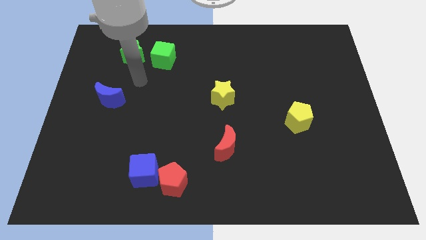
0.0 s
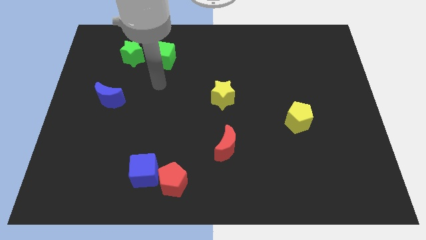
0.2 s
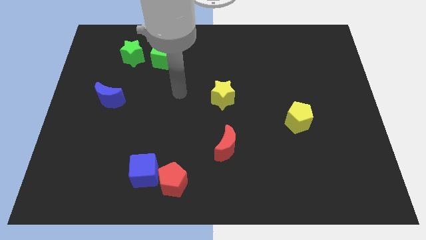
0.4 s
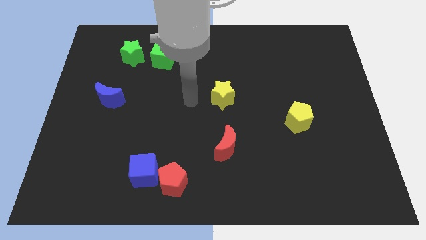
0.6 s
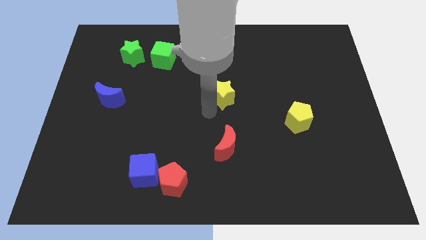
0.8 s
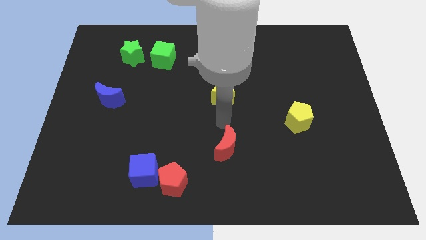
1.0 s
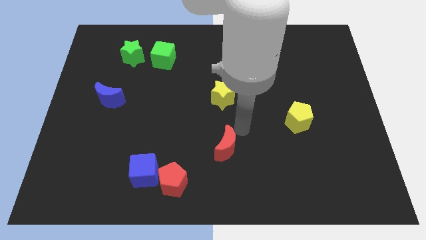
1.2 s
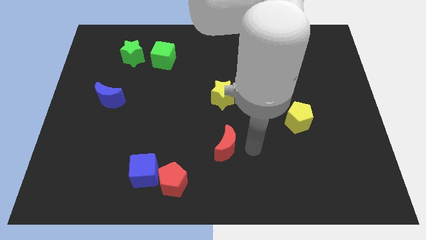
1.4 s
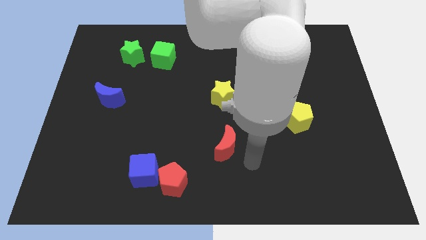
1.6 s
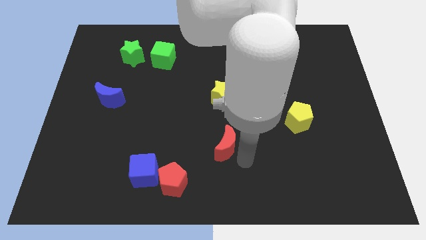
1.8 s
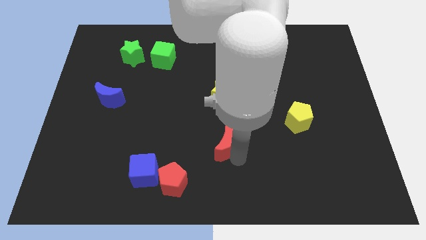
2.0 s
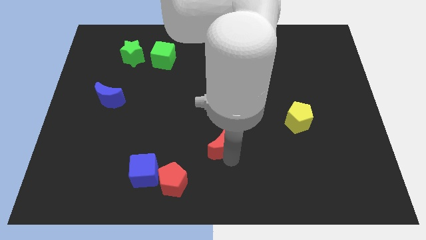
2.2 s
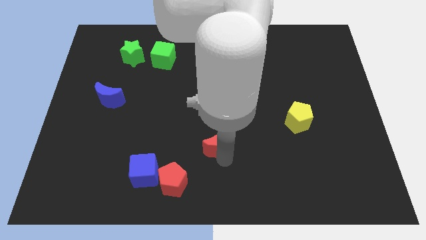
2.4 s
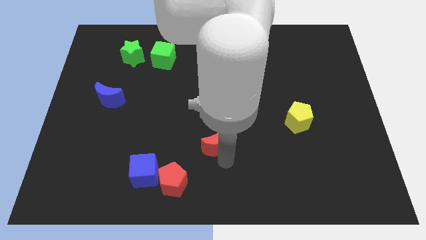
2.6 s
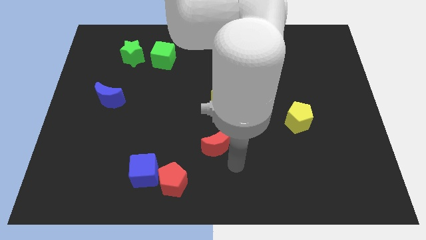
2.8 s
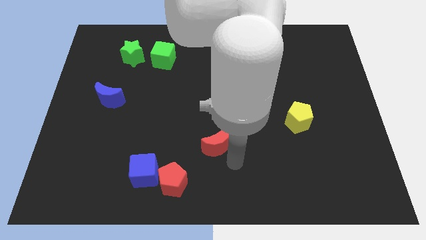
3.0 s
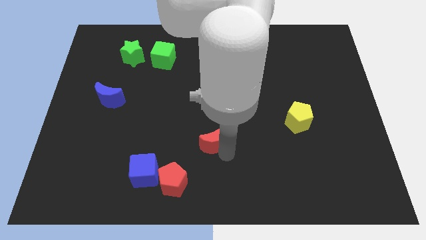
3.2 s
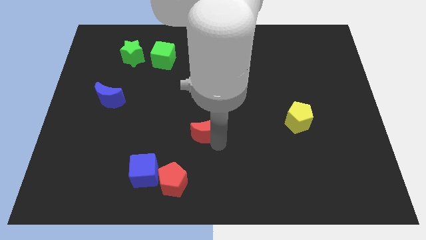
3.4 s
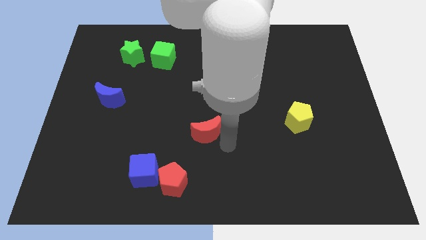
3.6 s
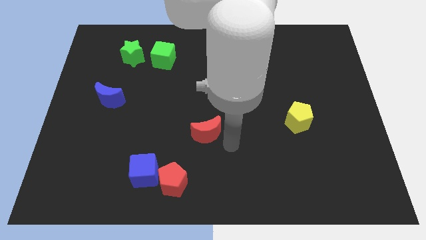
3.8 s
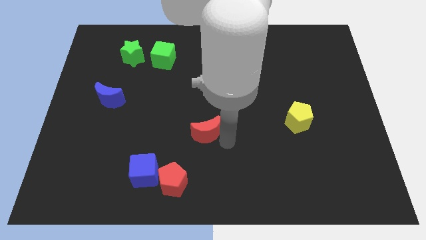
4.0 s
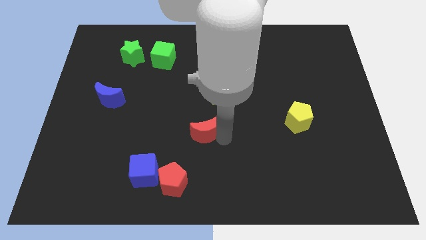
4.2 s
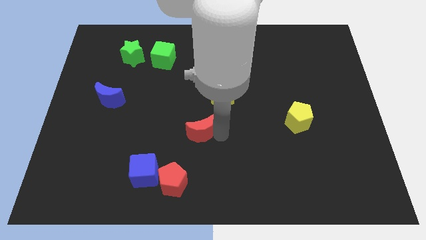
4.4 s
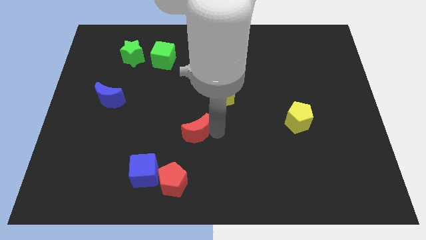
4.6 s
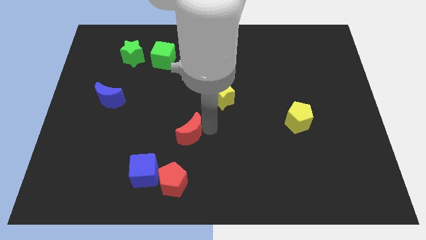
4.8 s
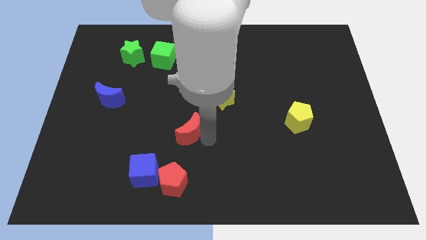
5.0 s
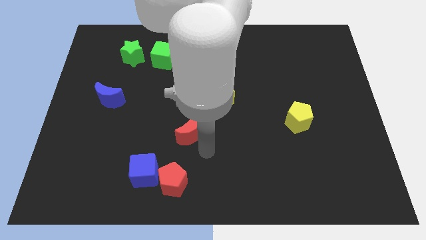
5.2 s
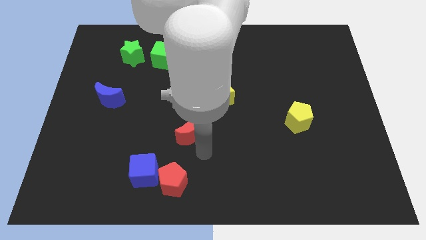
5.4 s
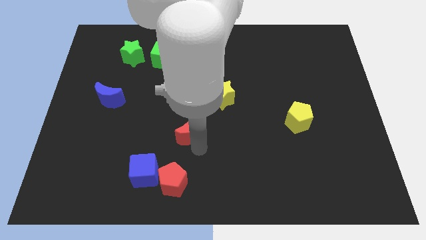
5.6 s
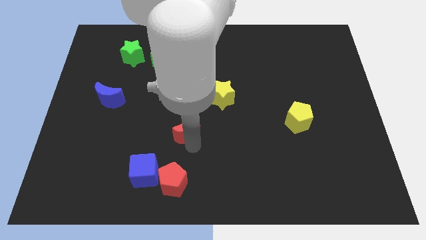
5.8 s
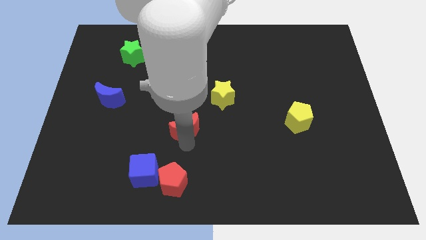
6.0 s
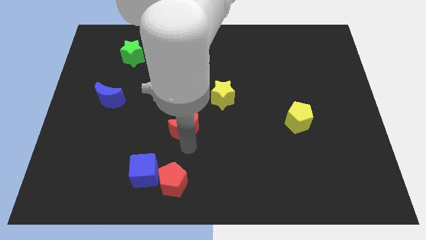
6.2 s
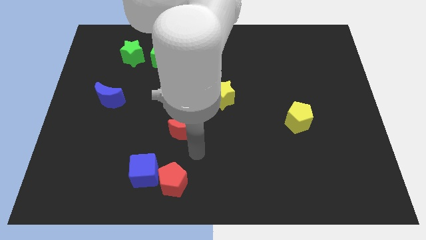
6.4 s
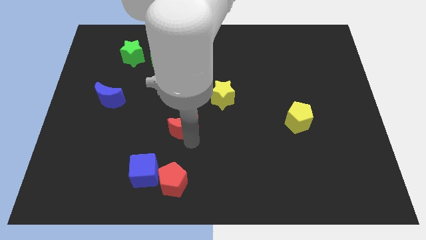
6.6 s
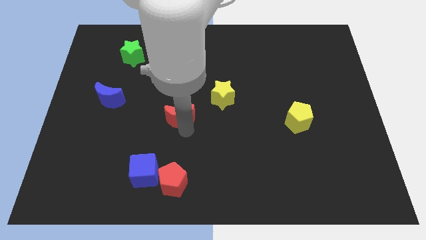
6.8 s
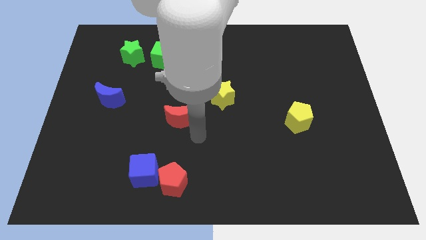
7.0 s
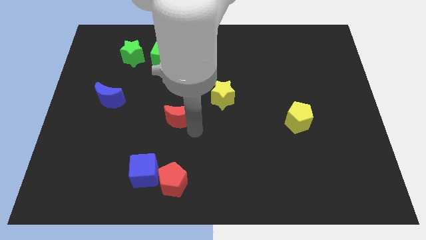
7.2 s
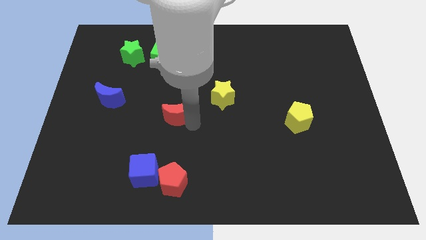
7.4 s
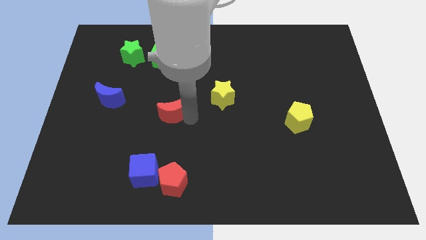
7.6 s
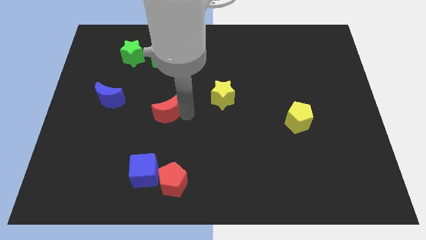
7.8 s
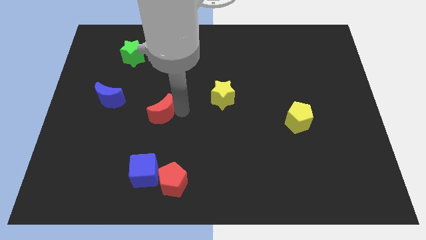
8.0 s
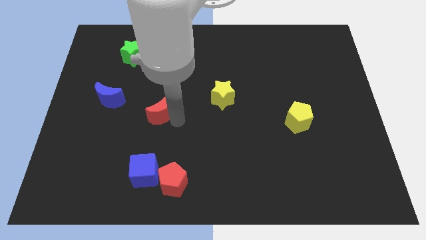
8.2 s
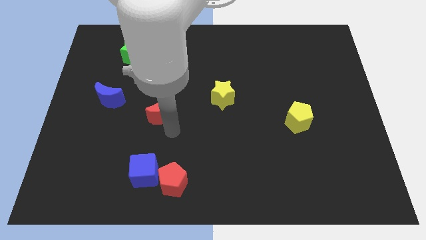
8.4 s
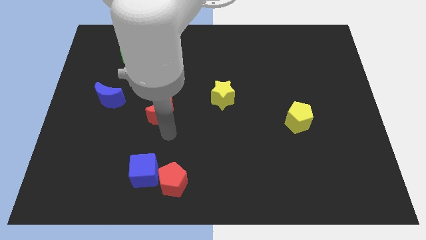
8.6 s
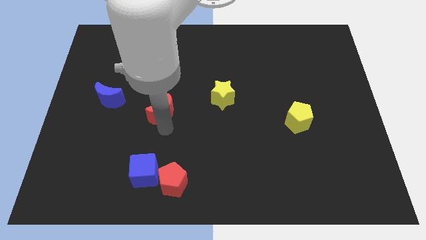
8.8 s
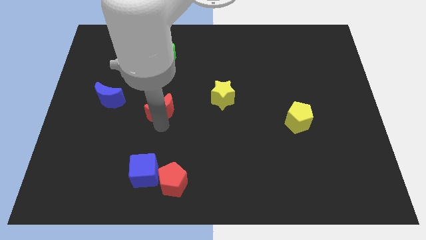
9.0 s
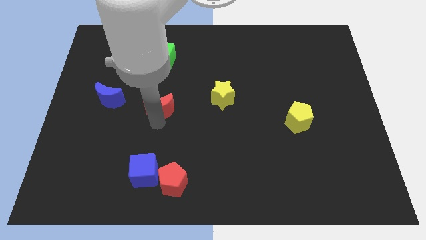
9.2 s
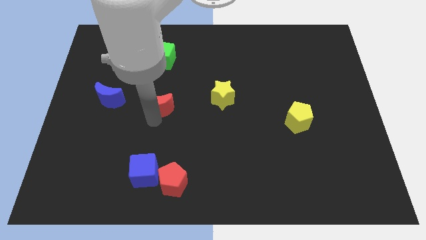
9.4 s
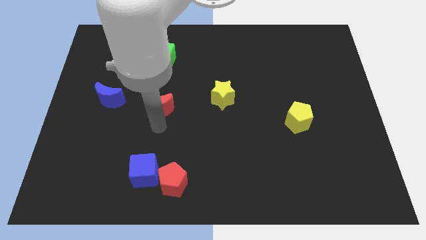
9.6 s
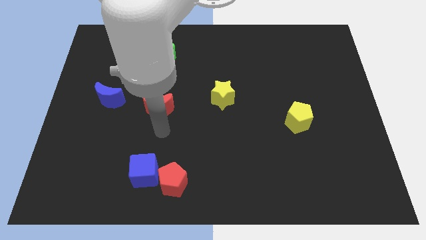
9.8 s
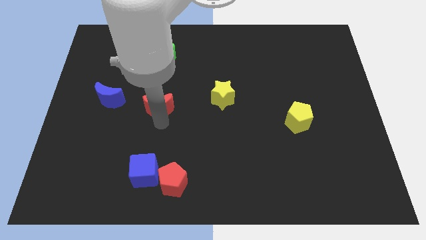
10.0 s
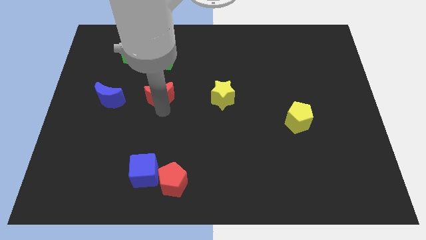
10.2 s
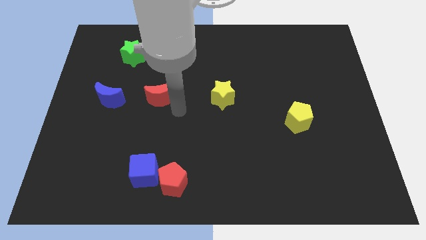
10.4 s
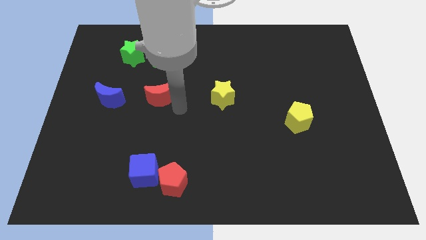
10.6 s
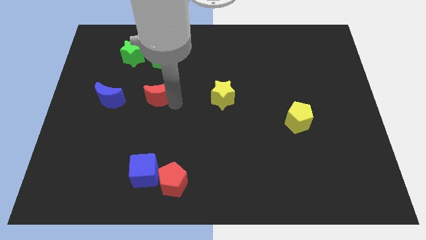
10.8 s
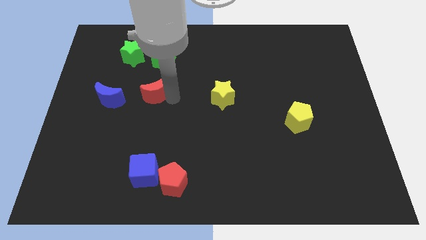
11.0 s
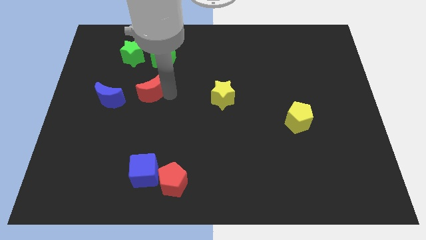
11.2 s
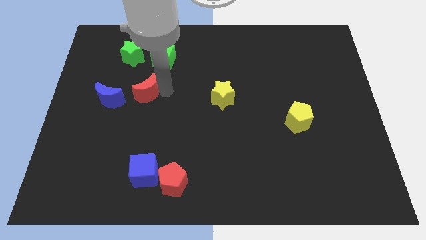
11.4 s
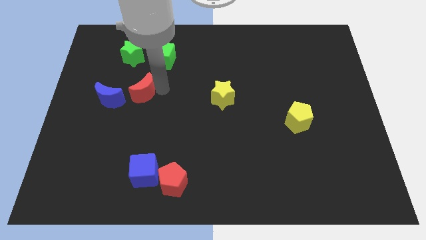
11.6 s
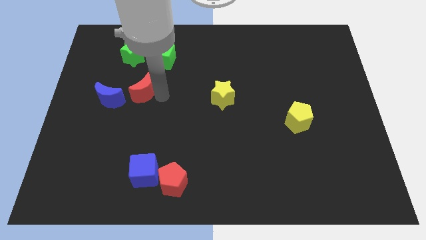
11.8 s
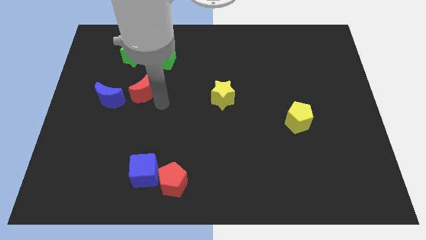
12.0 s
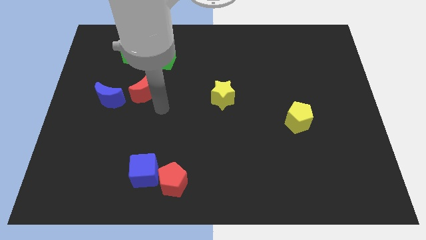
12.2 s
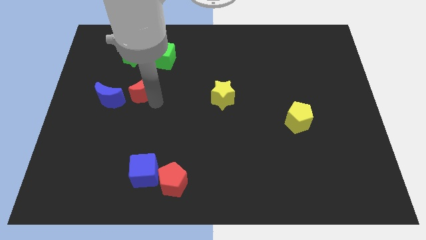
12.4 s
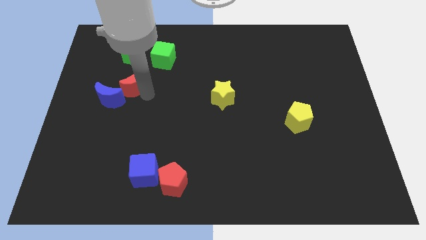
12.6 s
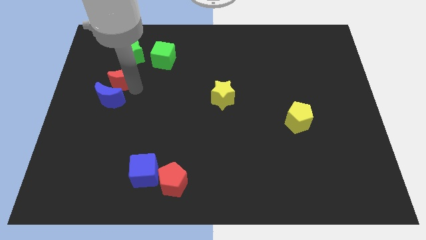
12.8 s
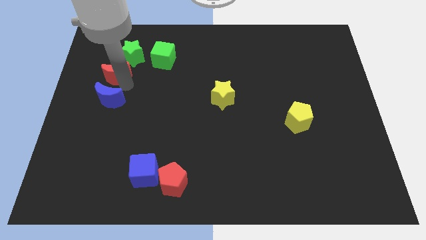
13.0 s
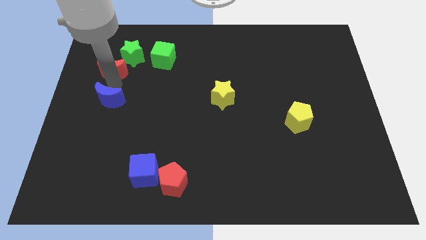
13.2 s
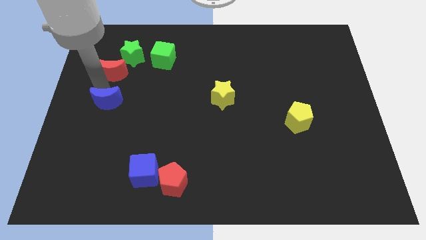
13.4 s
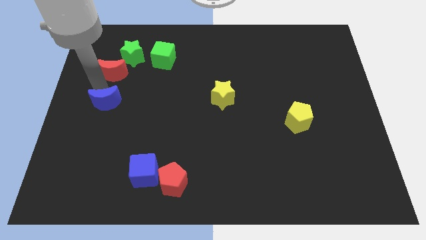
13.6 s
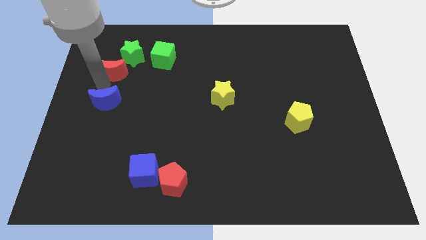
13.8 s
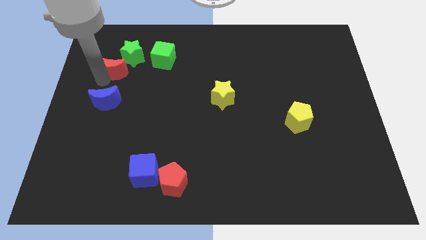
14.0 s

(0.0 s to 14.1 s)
slide the red moon just left of the green cube
